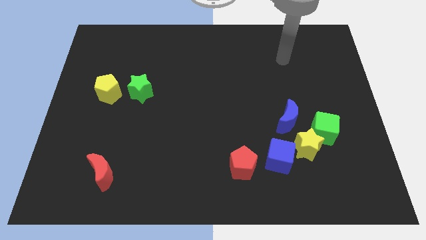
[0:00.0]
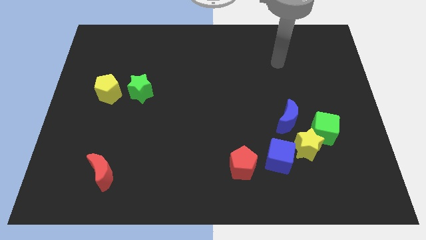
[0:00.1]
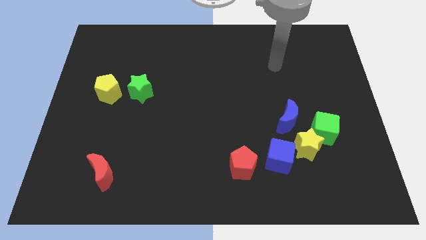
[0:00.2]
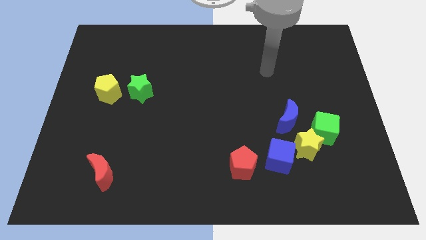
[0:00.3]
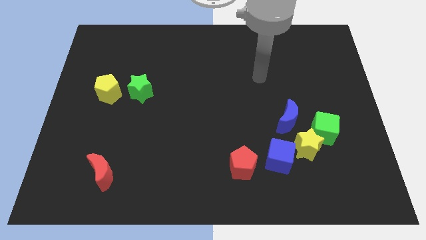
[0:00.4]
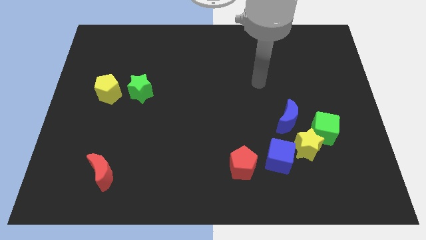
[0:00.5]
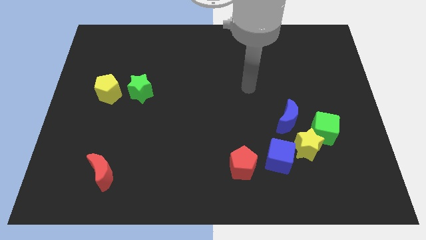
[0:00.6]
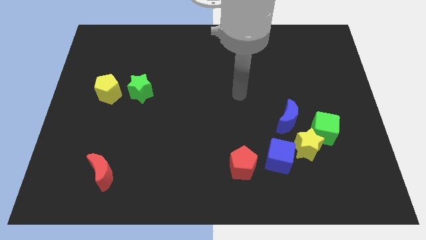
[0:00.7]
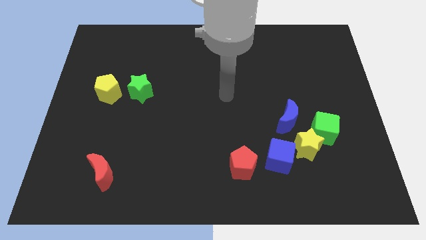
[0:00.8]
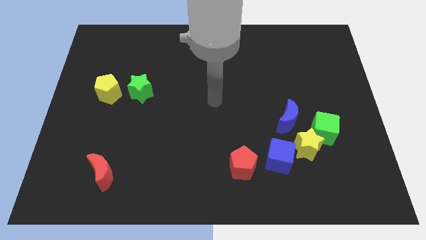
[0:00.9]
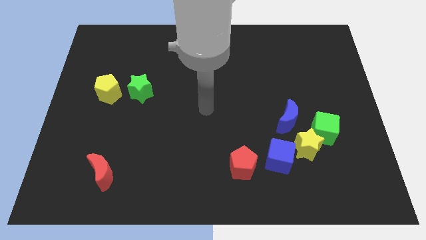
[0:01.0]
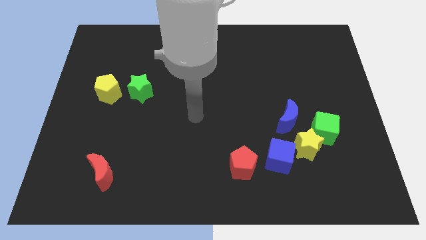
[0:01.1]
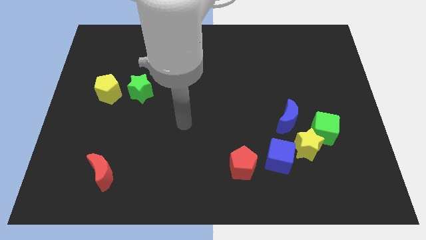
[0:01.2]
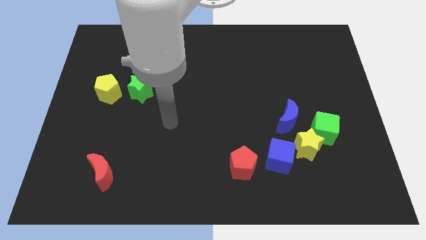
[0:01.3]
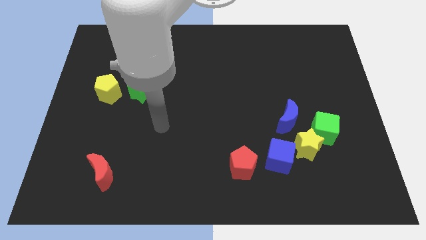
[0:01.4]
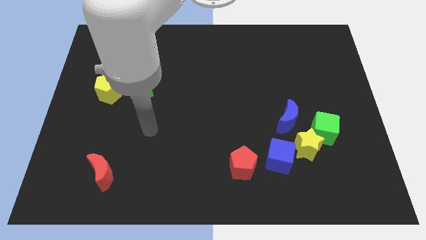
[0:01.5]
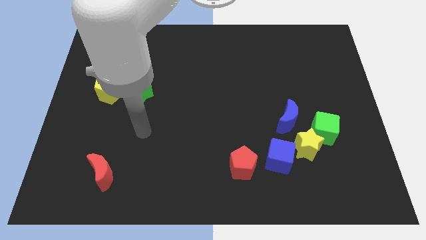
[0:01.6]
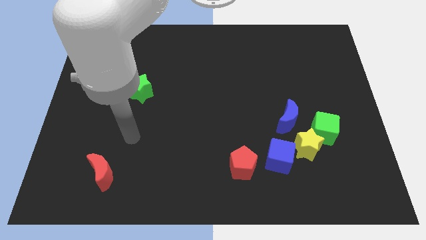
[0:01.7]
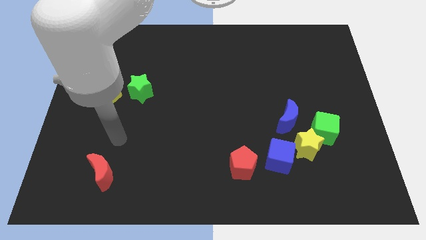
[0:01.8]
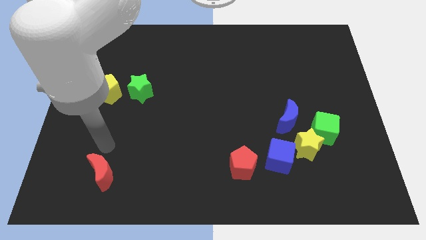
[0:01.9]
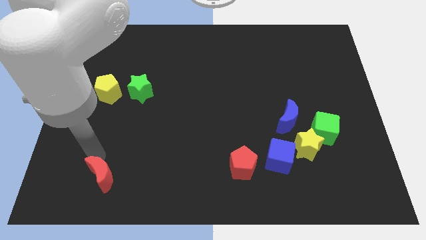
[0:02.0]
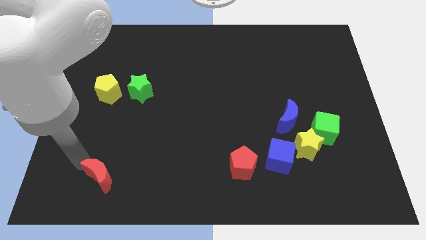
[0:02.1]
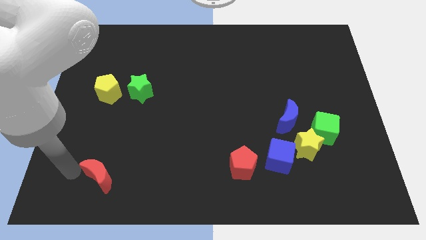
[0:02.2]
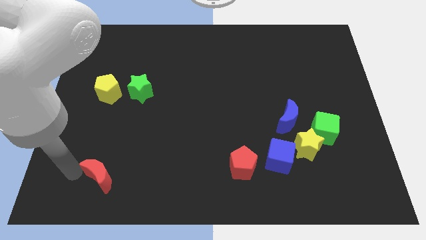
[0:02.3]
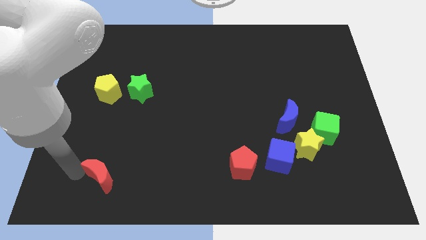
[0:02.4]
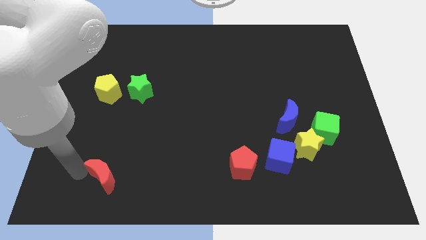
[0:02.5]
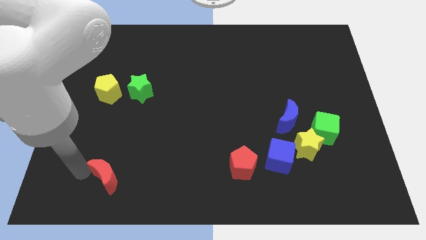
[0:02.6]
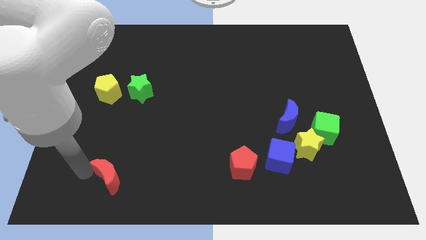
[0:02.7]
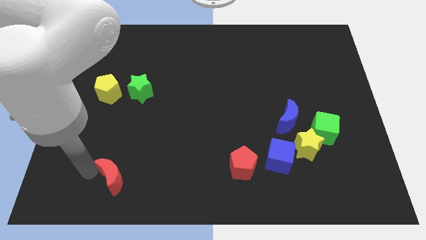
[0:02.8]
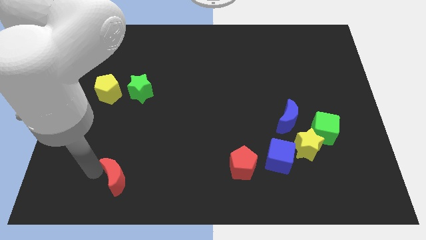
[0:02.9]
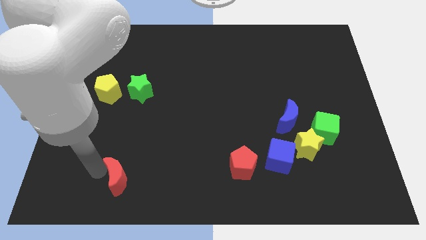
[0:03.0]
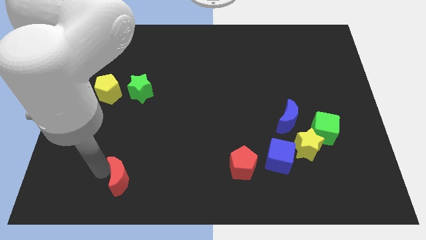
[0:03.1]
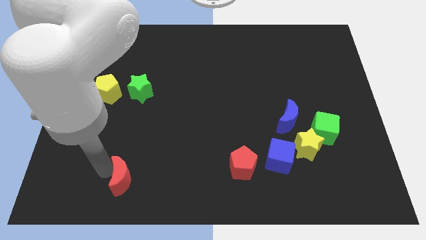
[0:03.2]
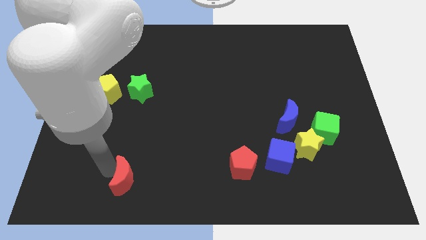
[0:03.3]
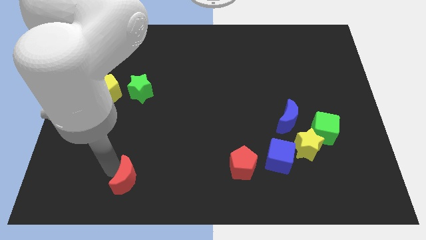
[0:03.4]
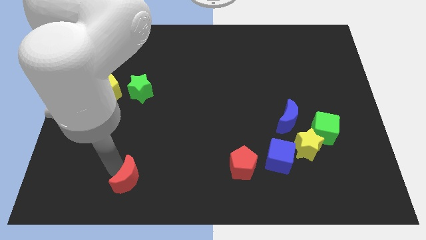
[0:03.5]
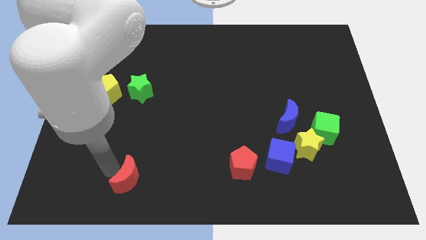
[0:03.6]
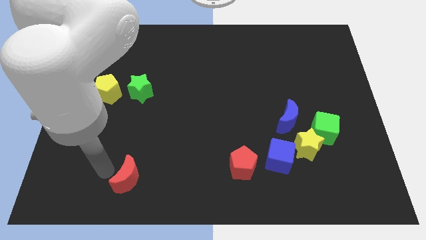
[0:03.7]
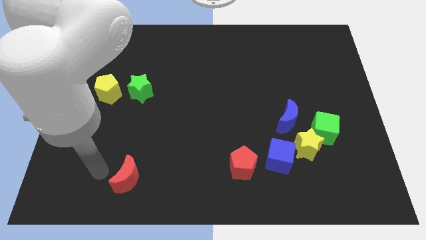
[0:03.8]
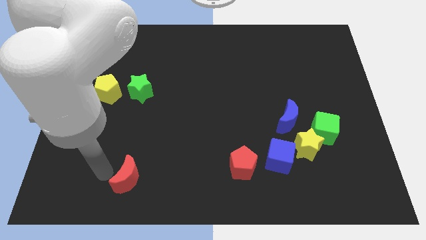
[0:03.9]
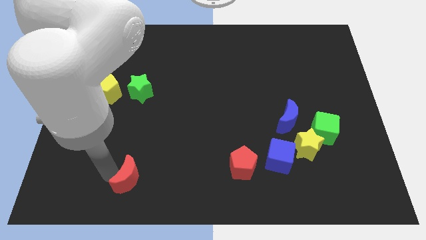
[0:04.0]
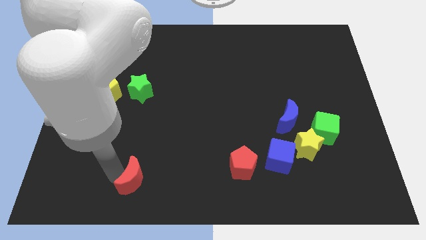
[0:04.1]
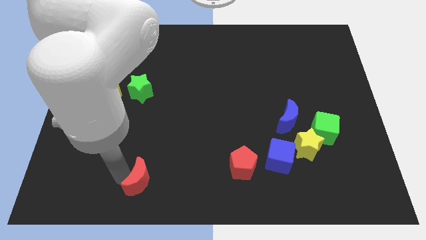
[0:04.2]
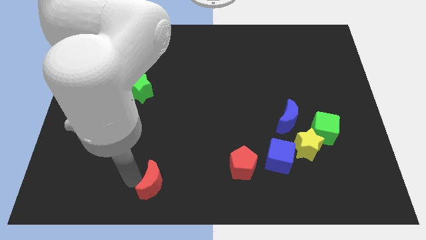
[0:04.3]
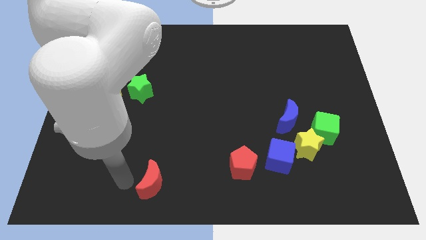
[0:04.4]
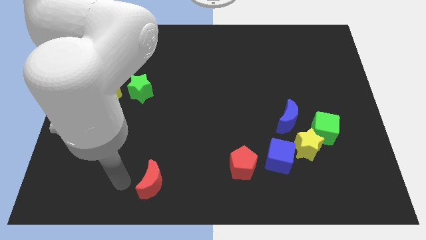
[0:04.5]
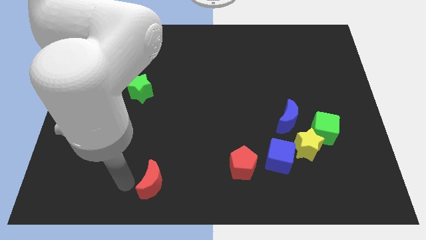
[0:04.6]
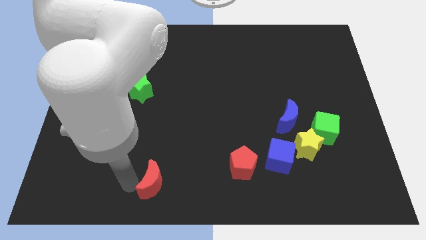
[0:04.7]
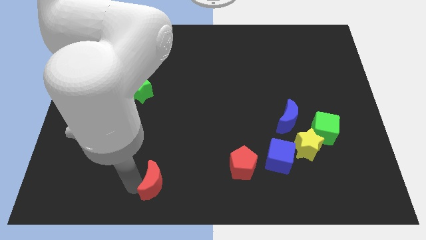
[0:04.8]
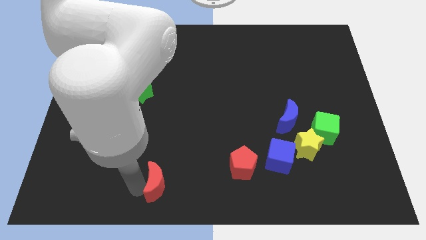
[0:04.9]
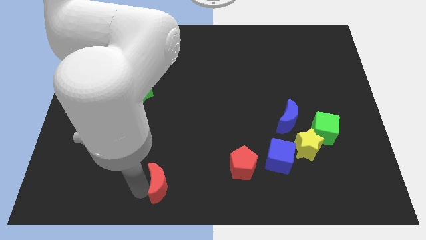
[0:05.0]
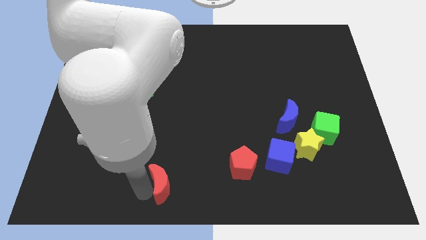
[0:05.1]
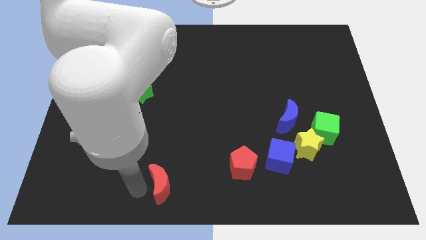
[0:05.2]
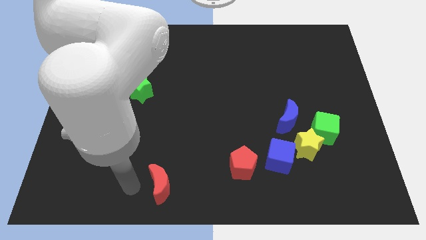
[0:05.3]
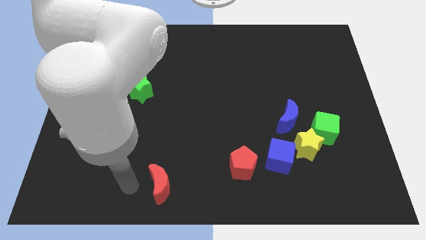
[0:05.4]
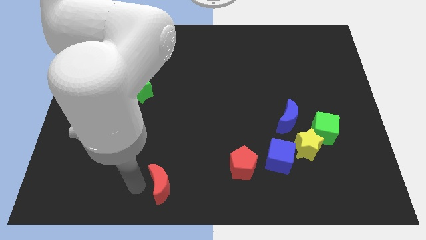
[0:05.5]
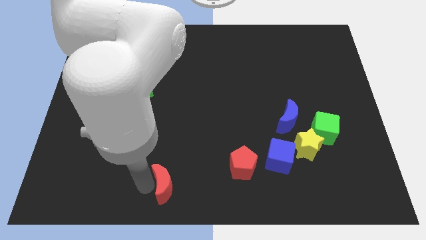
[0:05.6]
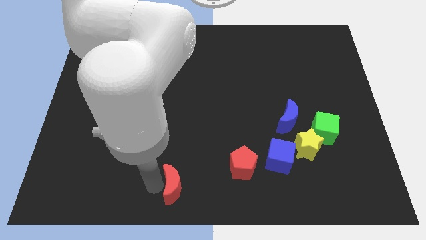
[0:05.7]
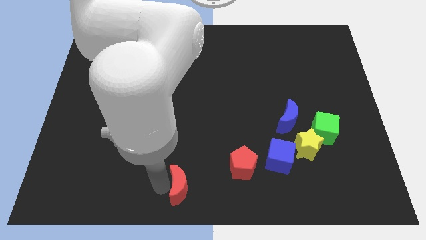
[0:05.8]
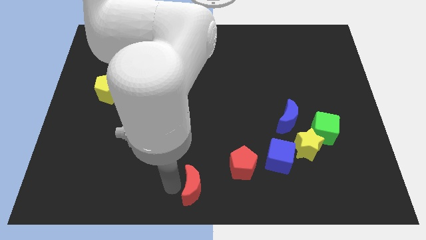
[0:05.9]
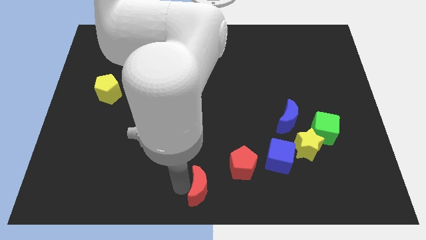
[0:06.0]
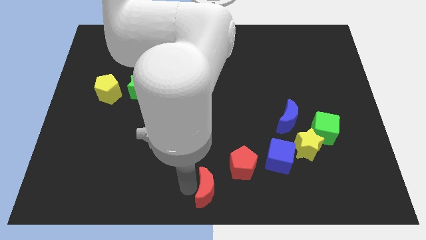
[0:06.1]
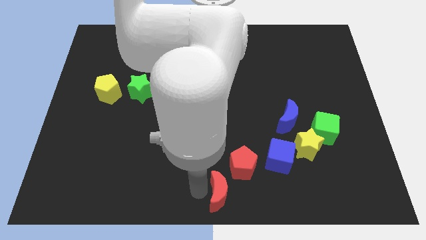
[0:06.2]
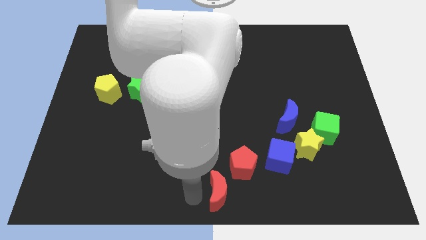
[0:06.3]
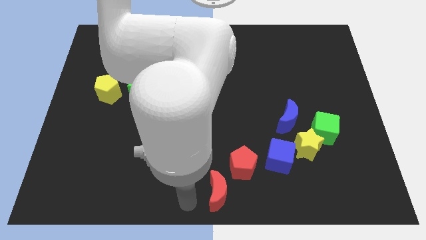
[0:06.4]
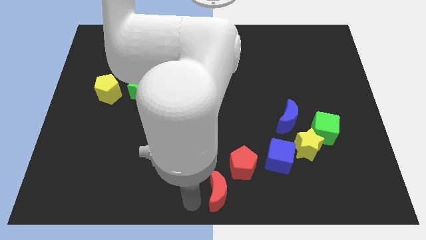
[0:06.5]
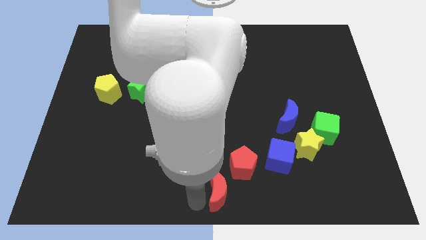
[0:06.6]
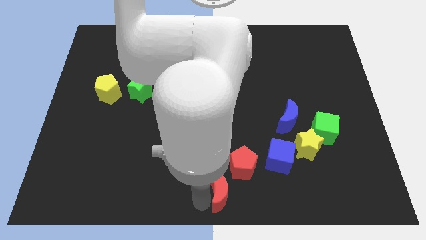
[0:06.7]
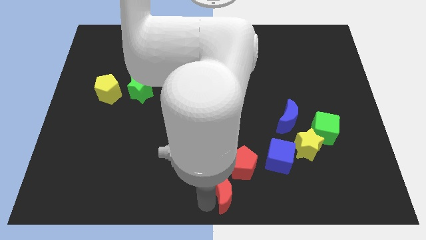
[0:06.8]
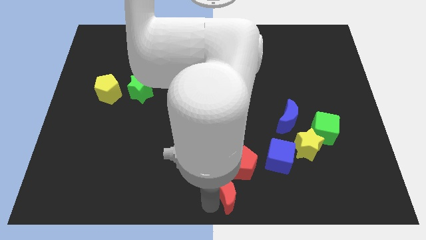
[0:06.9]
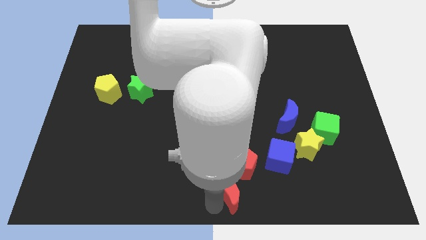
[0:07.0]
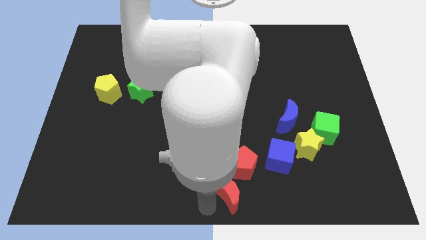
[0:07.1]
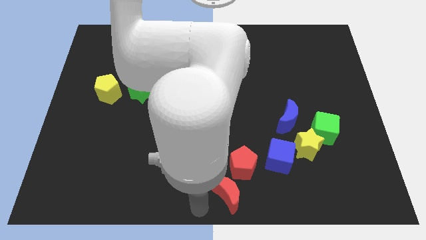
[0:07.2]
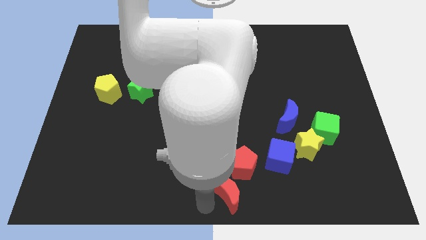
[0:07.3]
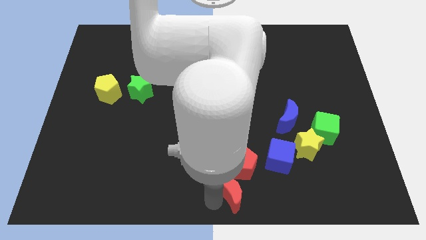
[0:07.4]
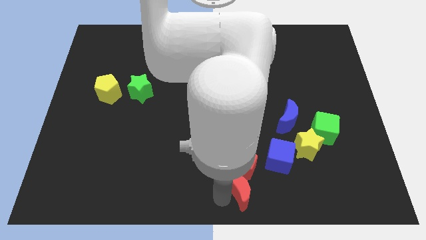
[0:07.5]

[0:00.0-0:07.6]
push the red moon diagonally down and to the left of the blue cube
